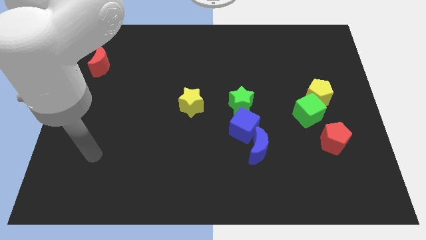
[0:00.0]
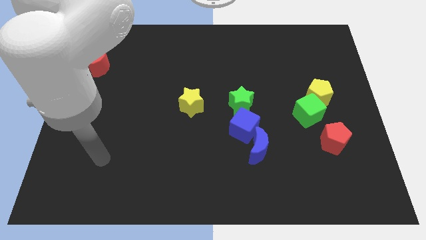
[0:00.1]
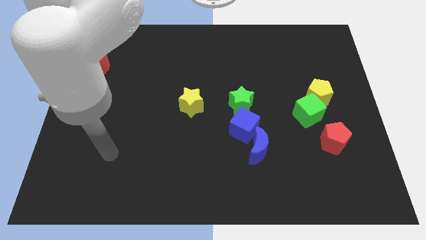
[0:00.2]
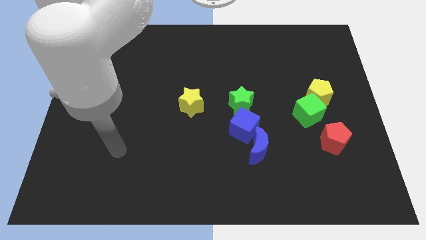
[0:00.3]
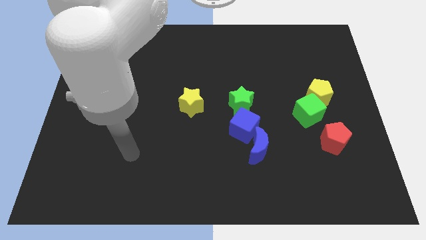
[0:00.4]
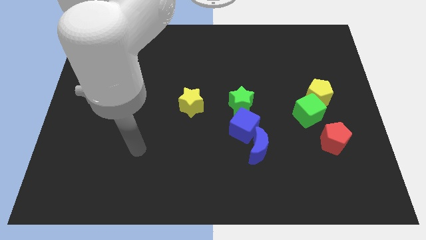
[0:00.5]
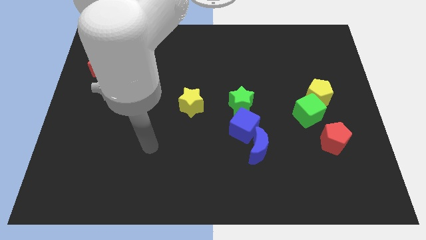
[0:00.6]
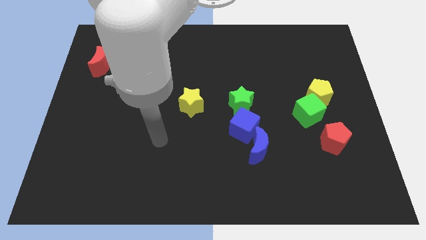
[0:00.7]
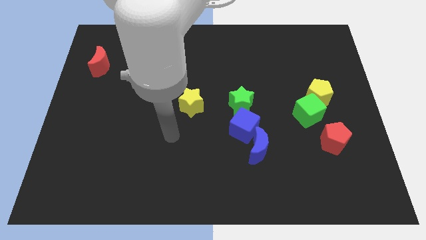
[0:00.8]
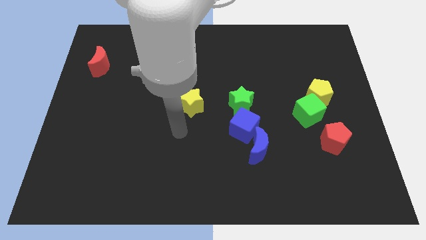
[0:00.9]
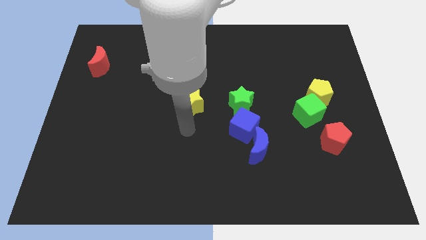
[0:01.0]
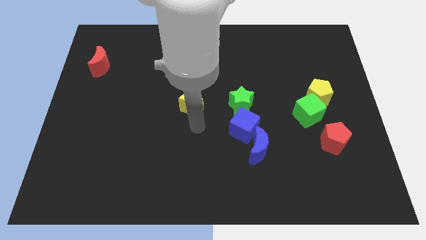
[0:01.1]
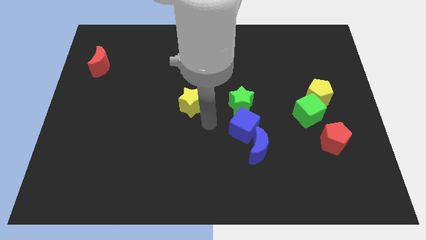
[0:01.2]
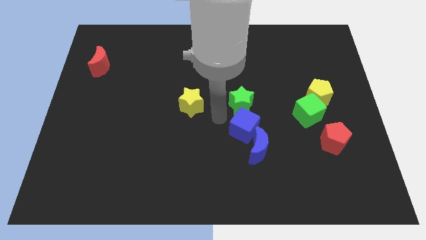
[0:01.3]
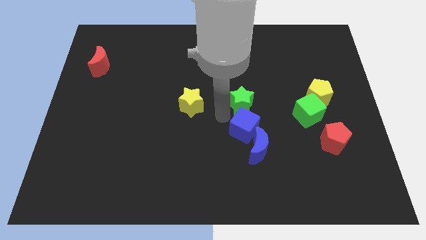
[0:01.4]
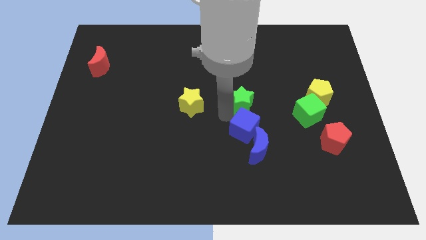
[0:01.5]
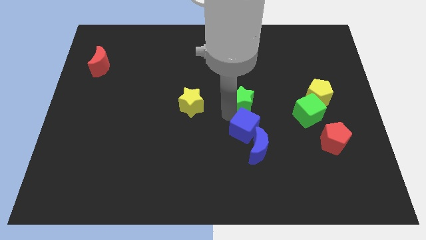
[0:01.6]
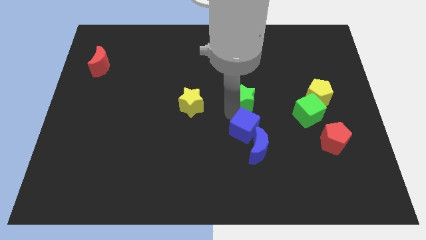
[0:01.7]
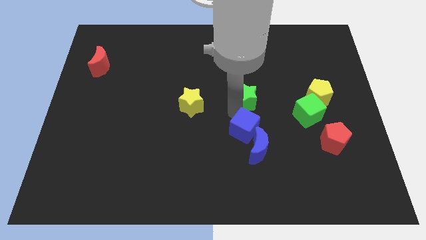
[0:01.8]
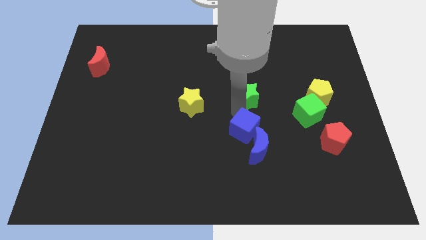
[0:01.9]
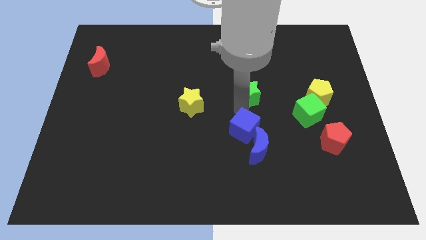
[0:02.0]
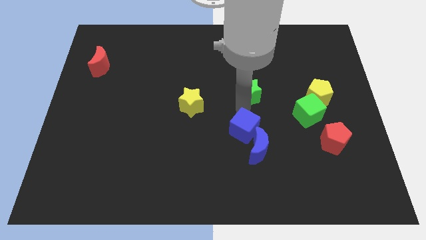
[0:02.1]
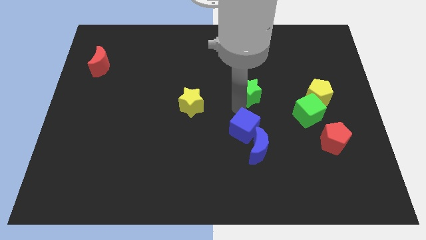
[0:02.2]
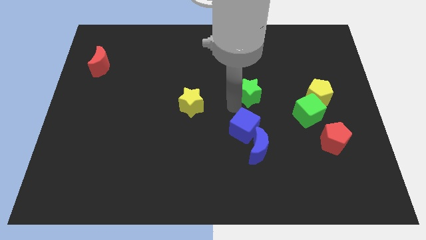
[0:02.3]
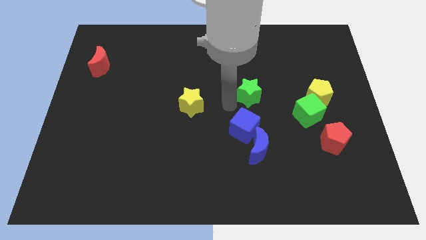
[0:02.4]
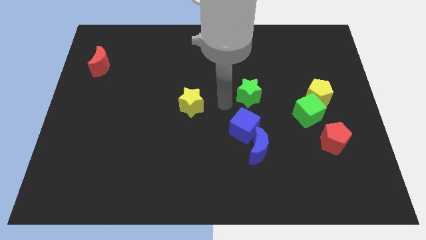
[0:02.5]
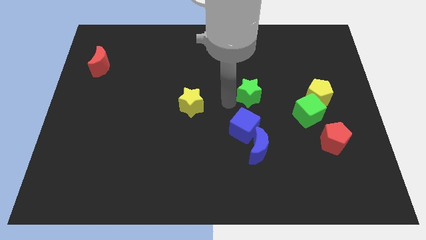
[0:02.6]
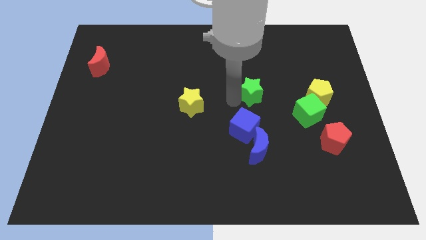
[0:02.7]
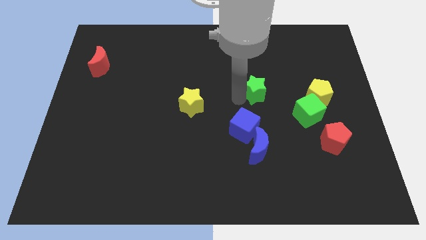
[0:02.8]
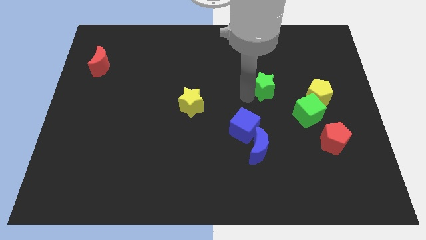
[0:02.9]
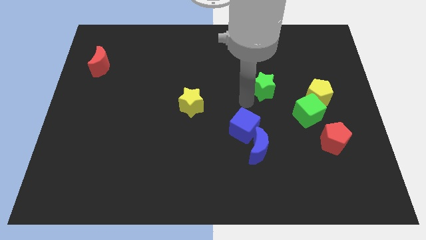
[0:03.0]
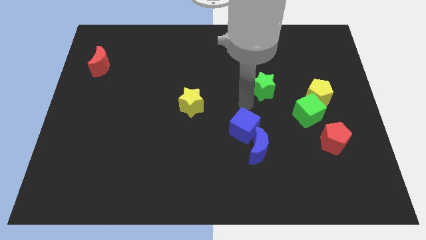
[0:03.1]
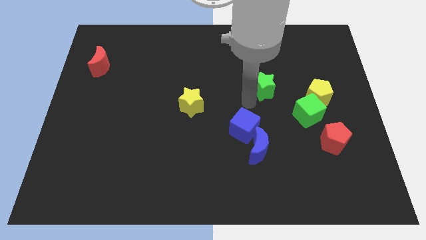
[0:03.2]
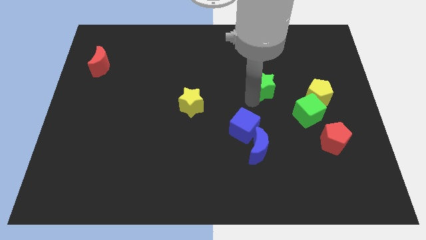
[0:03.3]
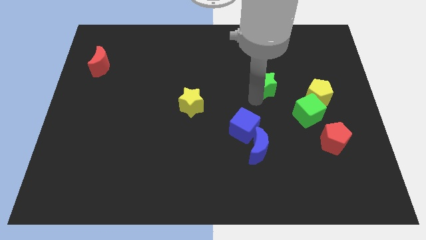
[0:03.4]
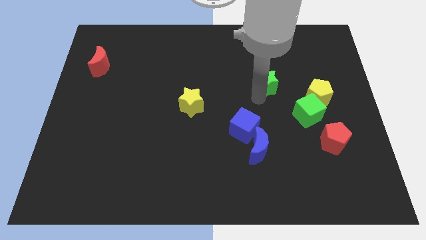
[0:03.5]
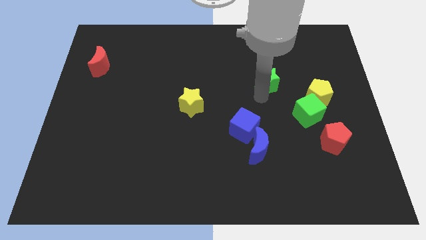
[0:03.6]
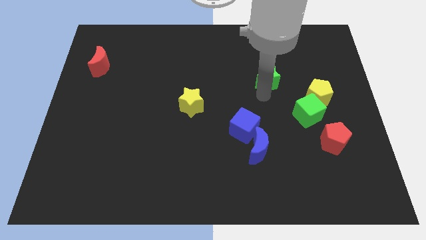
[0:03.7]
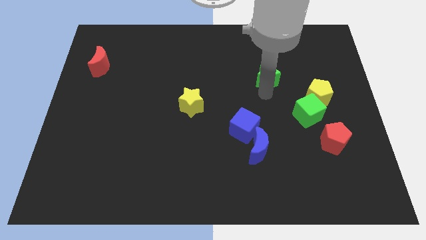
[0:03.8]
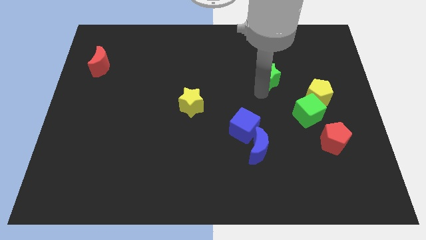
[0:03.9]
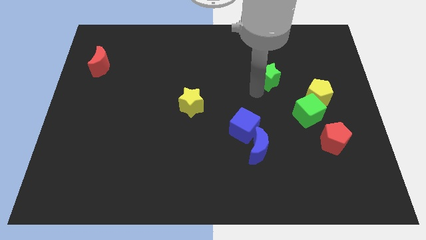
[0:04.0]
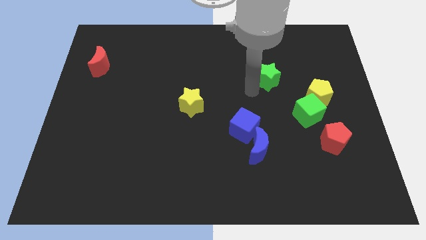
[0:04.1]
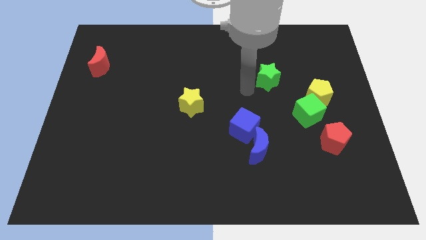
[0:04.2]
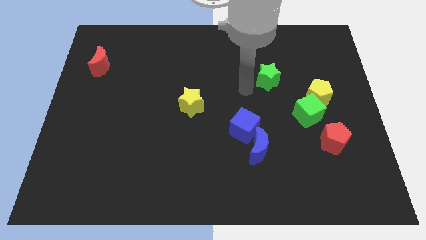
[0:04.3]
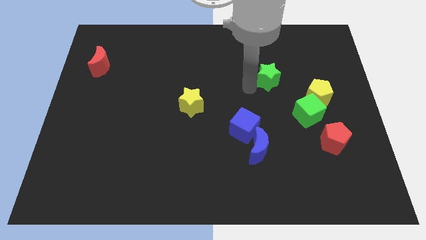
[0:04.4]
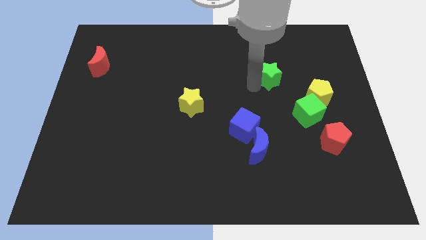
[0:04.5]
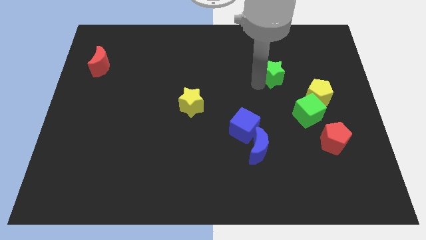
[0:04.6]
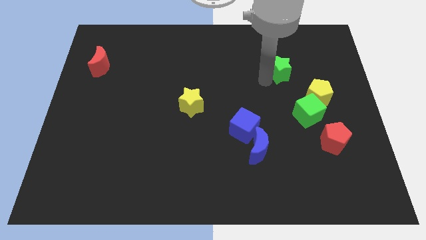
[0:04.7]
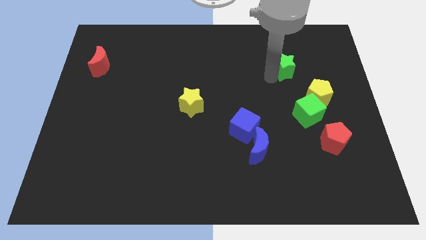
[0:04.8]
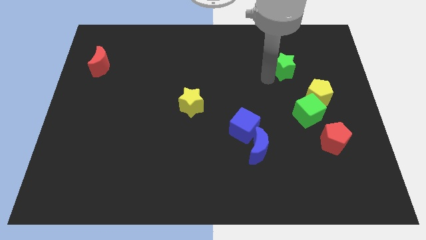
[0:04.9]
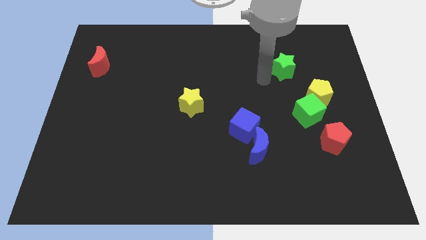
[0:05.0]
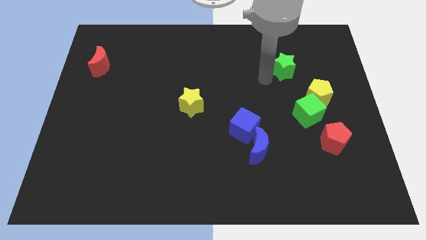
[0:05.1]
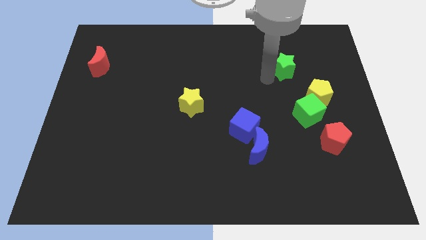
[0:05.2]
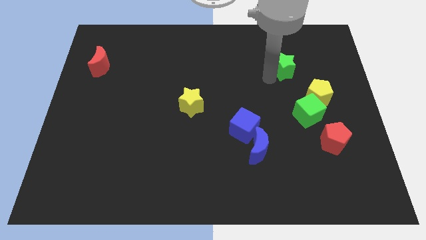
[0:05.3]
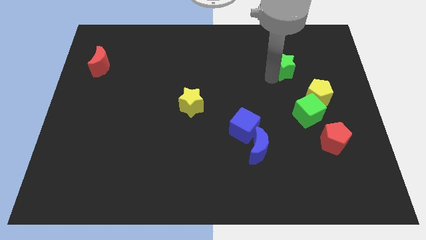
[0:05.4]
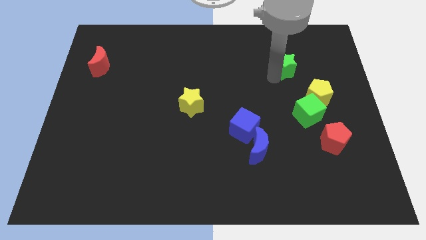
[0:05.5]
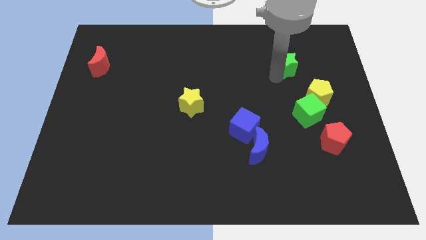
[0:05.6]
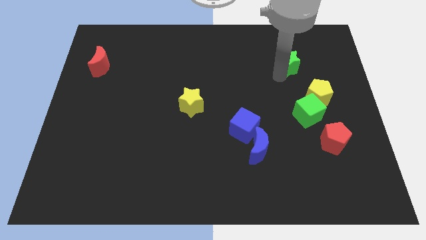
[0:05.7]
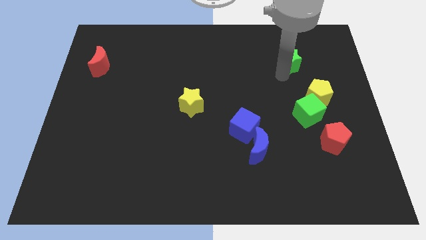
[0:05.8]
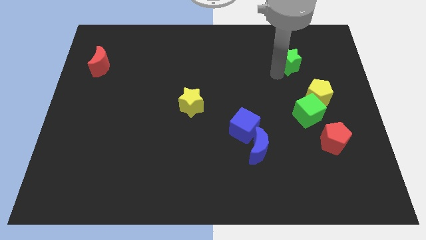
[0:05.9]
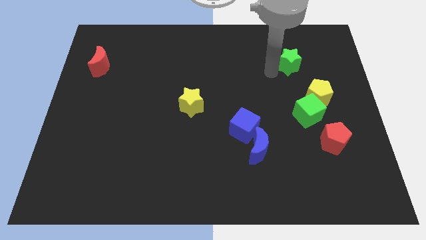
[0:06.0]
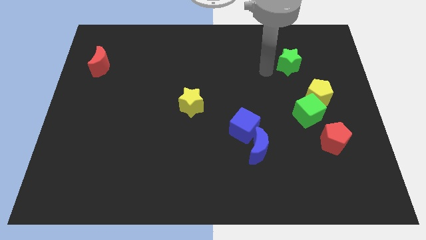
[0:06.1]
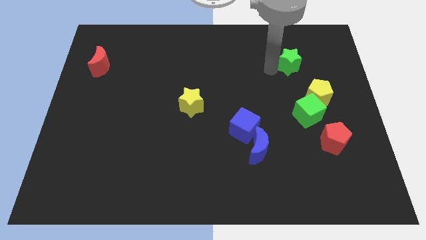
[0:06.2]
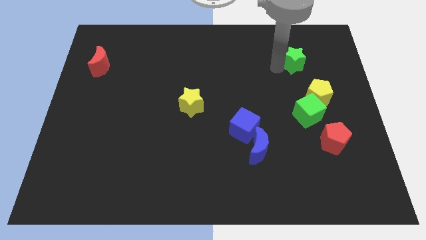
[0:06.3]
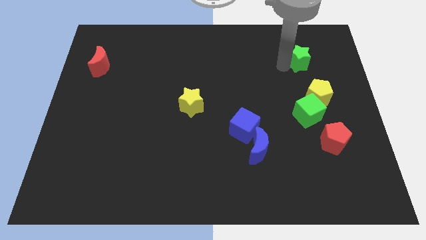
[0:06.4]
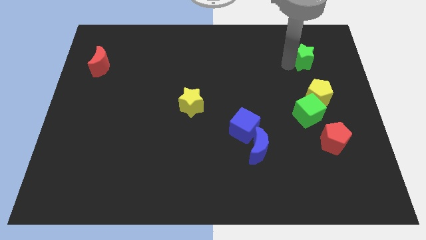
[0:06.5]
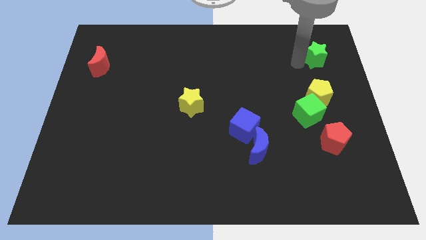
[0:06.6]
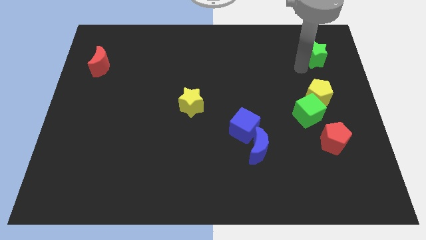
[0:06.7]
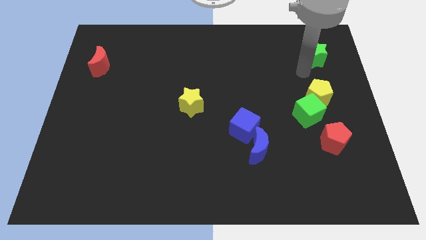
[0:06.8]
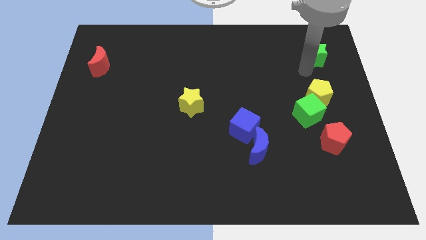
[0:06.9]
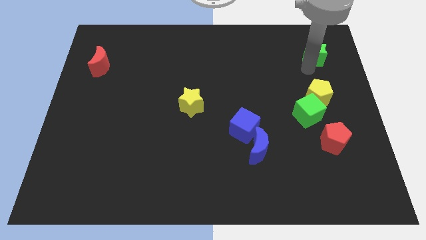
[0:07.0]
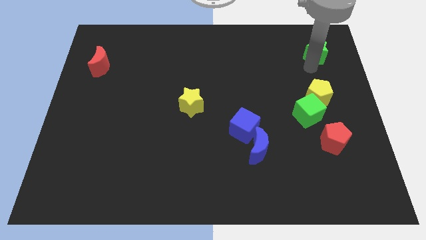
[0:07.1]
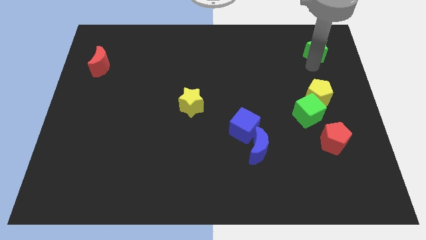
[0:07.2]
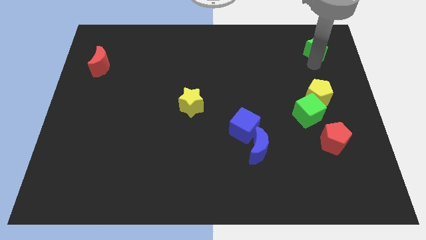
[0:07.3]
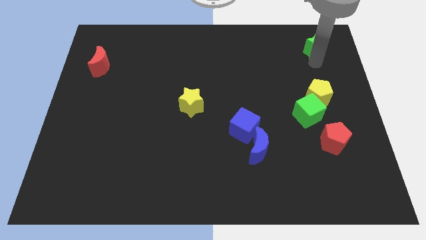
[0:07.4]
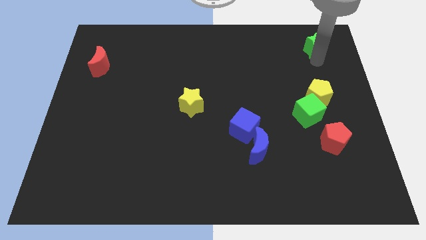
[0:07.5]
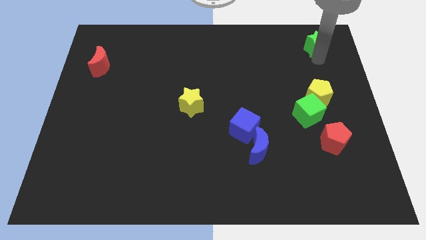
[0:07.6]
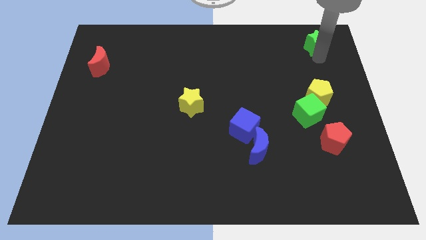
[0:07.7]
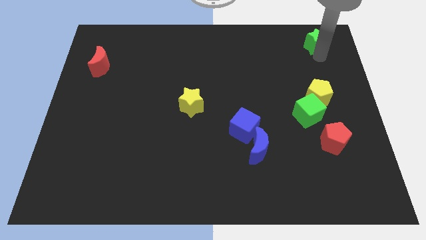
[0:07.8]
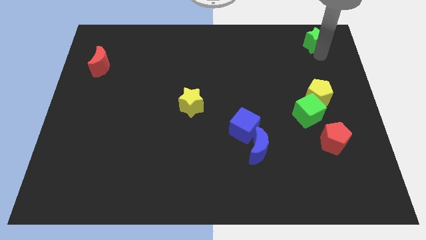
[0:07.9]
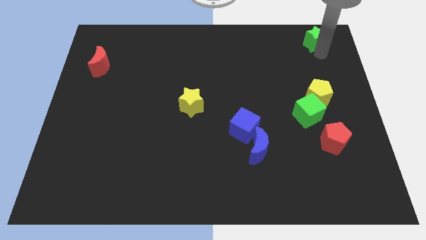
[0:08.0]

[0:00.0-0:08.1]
put the green star to the upper right corner
